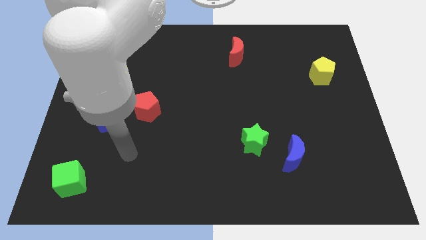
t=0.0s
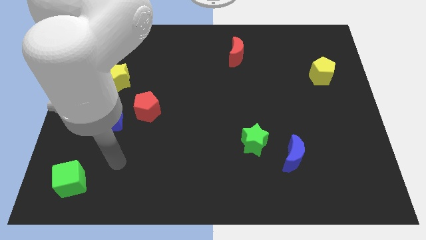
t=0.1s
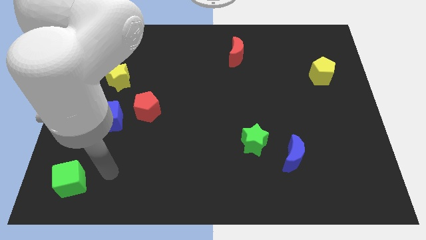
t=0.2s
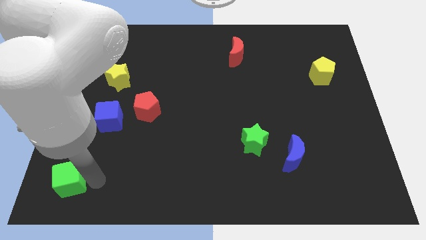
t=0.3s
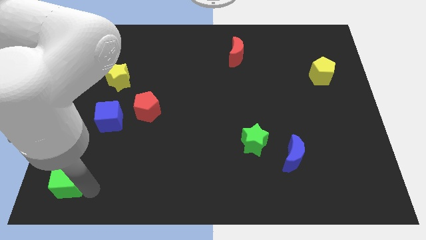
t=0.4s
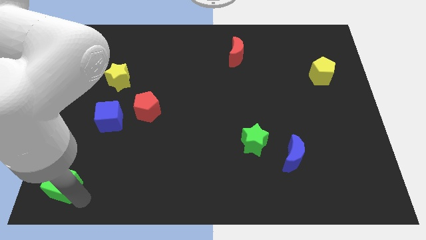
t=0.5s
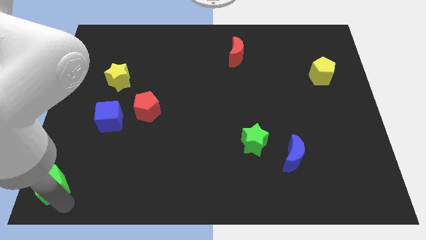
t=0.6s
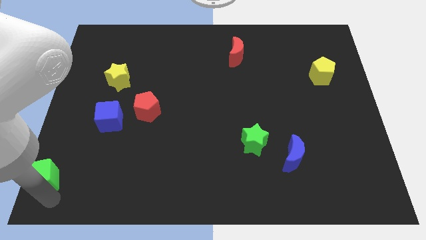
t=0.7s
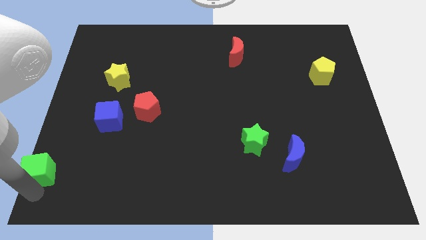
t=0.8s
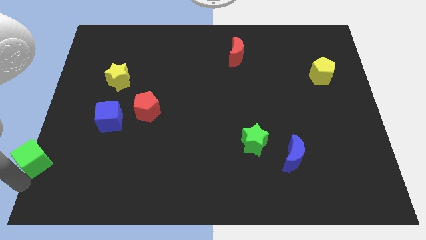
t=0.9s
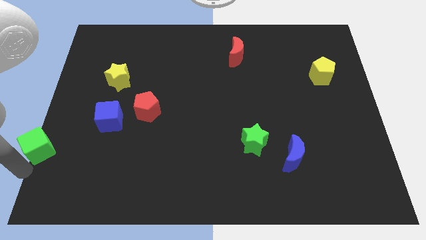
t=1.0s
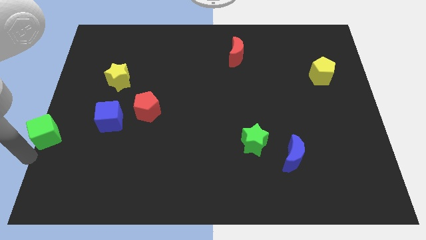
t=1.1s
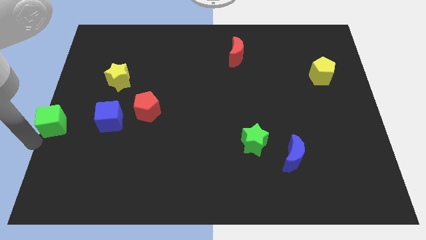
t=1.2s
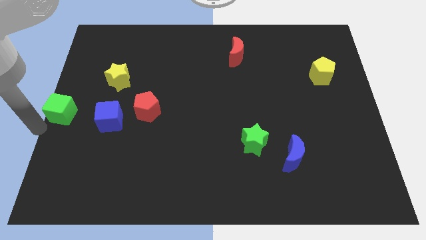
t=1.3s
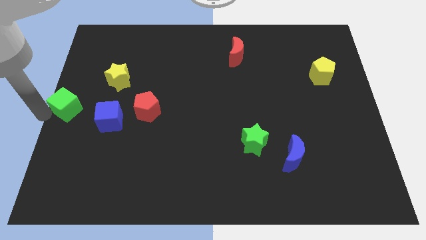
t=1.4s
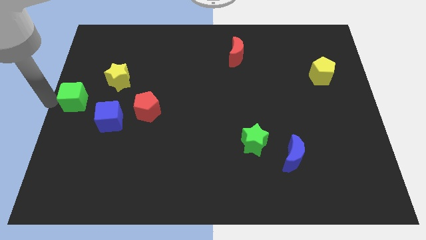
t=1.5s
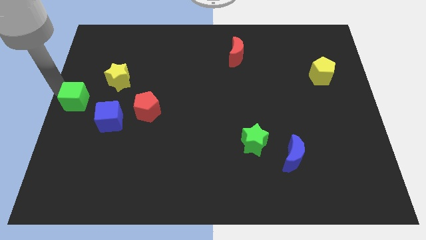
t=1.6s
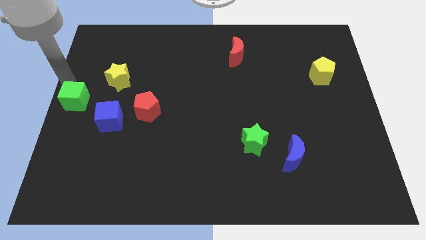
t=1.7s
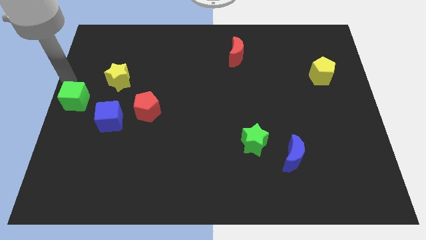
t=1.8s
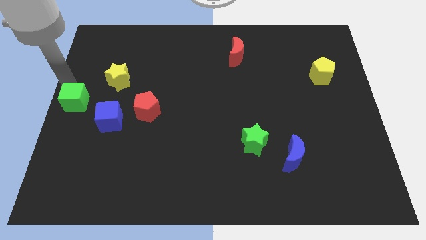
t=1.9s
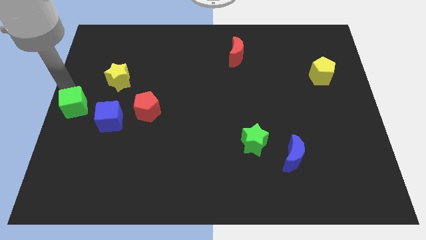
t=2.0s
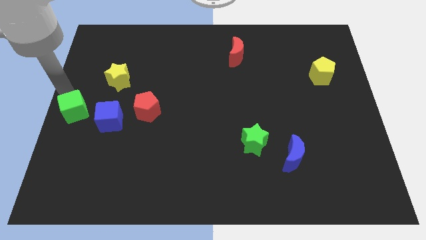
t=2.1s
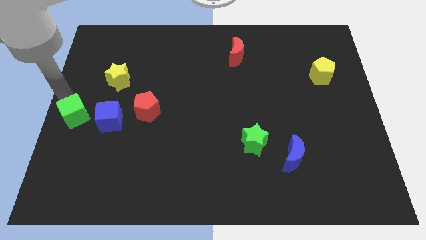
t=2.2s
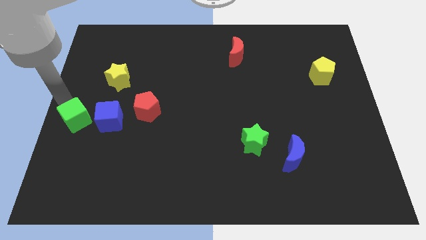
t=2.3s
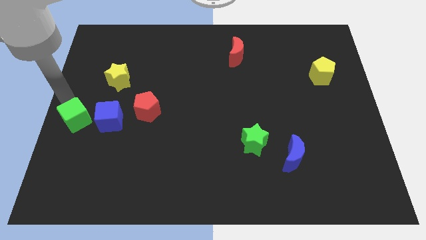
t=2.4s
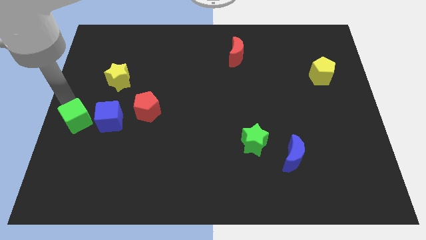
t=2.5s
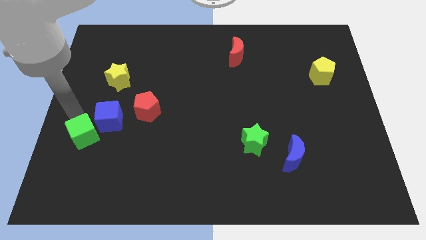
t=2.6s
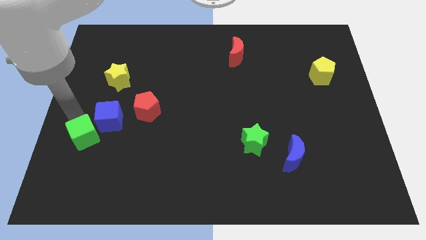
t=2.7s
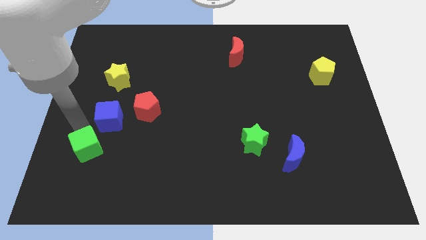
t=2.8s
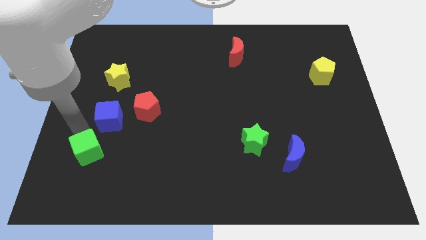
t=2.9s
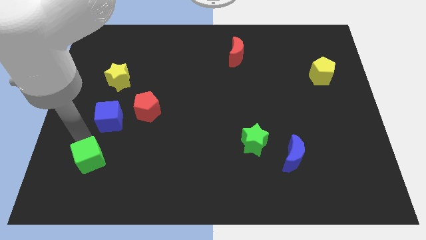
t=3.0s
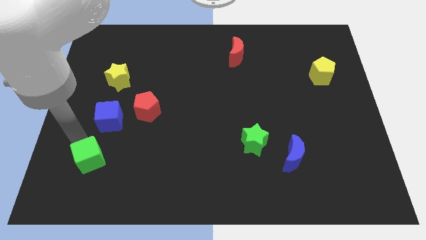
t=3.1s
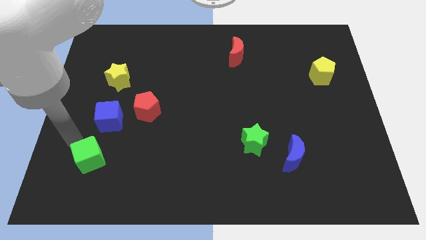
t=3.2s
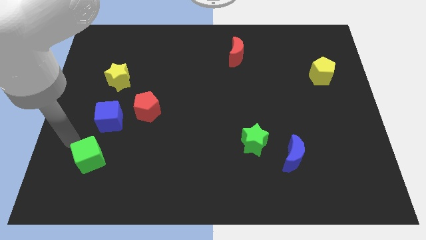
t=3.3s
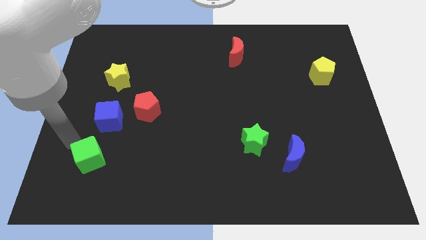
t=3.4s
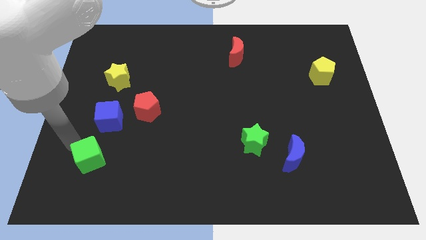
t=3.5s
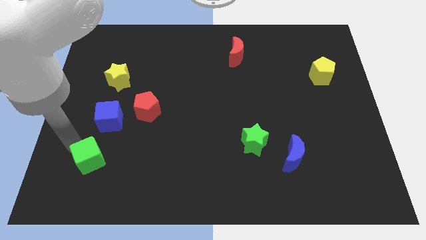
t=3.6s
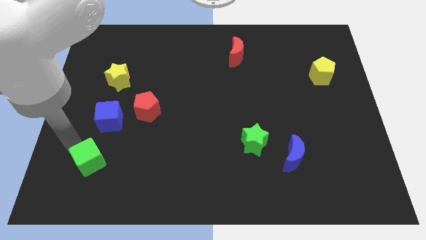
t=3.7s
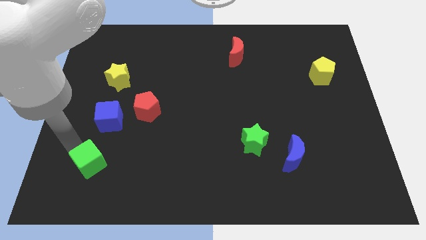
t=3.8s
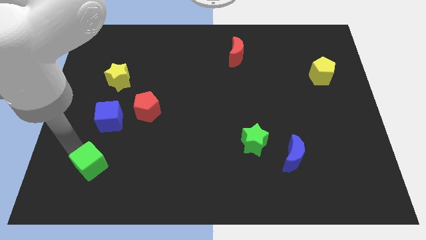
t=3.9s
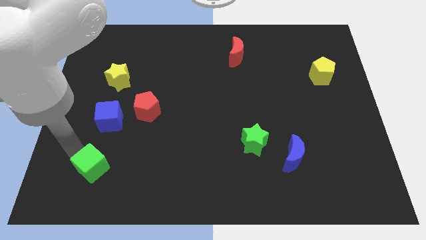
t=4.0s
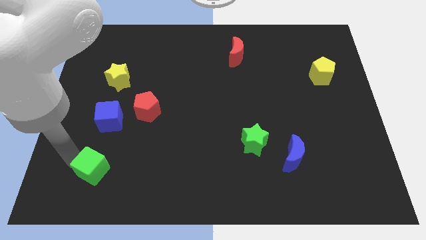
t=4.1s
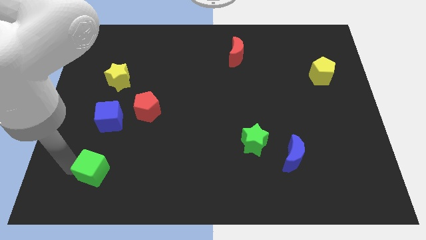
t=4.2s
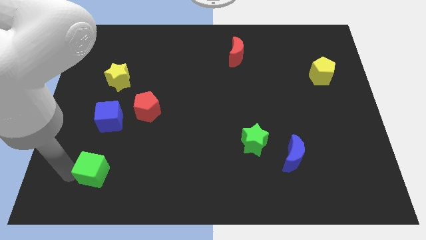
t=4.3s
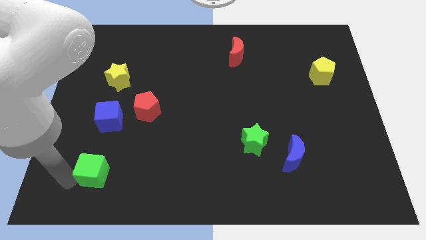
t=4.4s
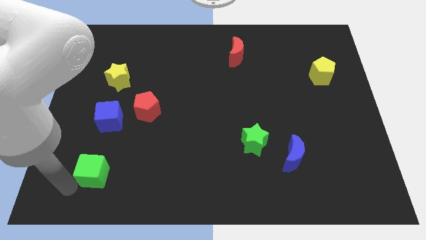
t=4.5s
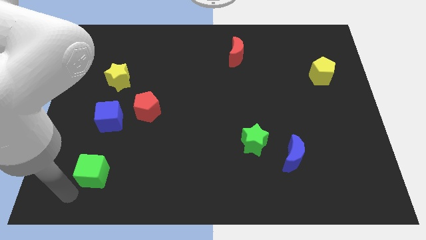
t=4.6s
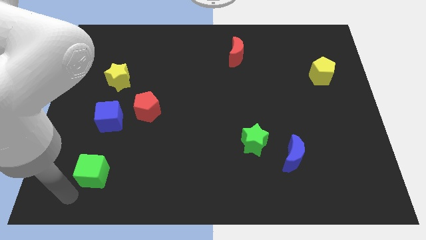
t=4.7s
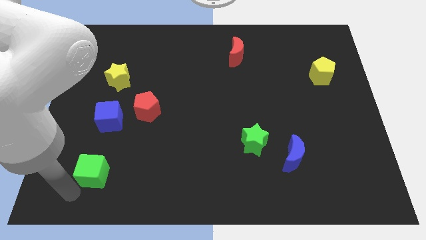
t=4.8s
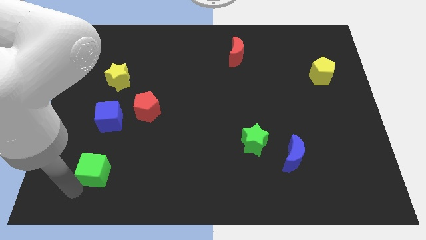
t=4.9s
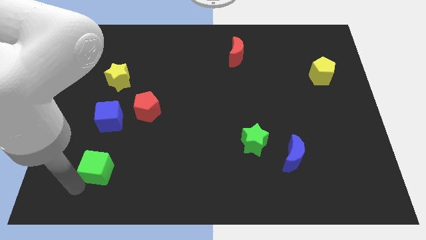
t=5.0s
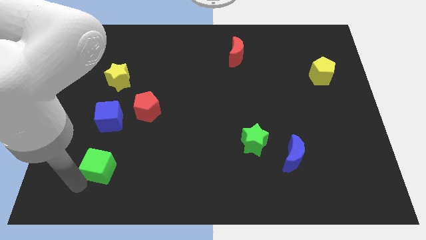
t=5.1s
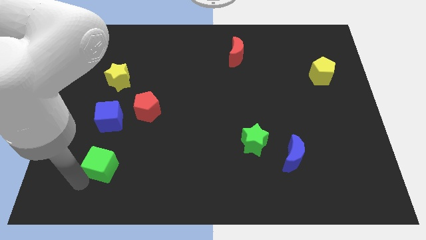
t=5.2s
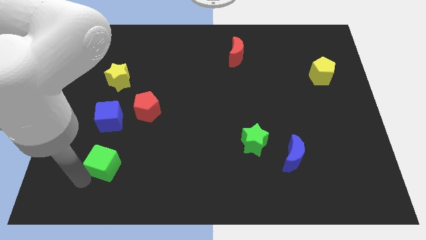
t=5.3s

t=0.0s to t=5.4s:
slide the green cube up and to the right a little

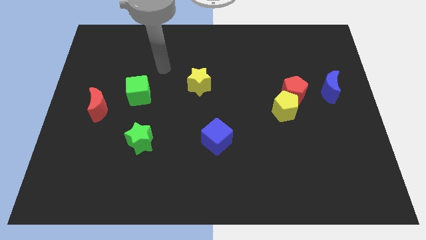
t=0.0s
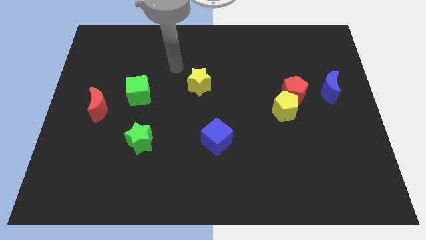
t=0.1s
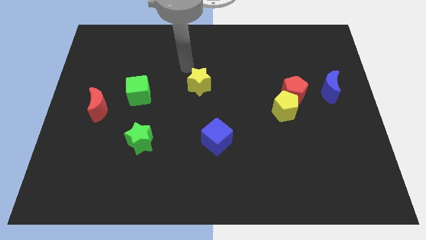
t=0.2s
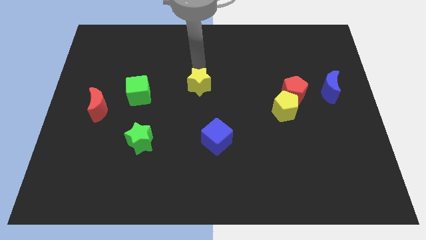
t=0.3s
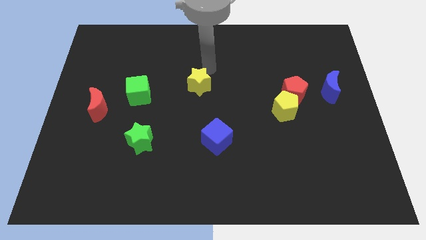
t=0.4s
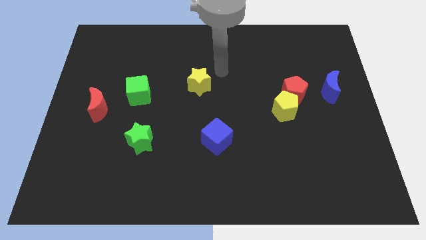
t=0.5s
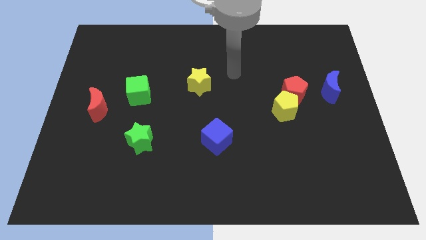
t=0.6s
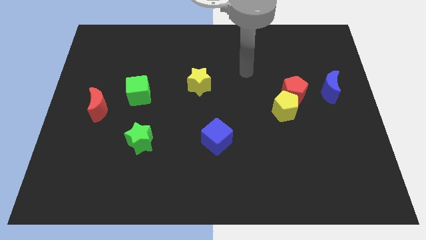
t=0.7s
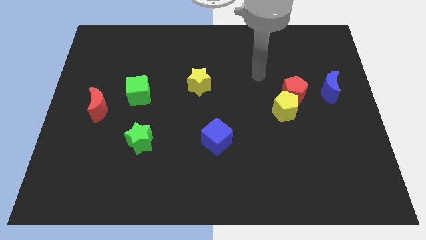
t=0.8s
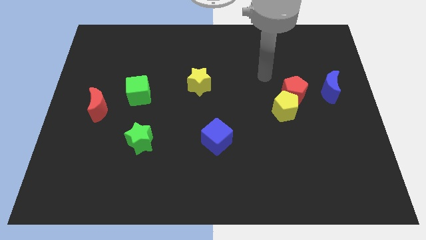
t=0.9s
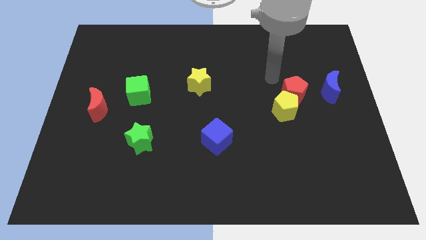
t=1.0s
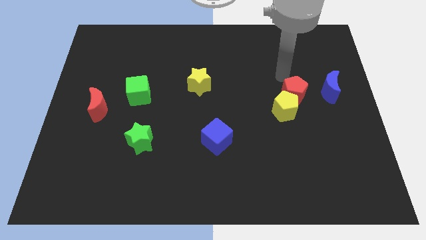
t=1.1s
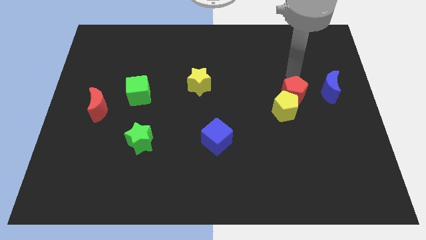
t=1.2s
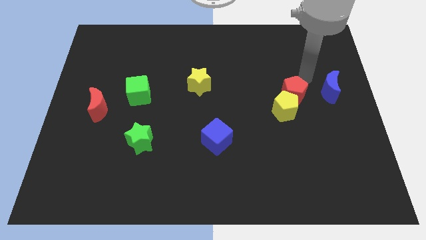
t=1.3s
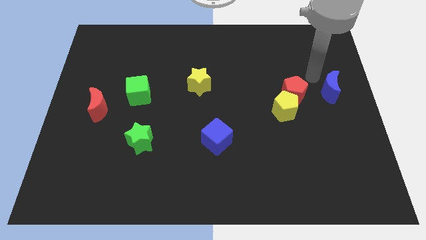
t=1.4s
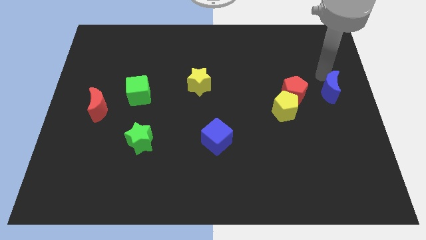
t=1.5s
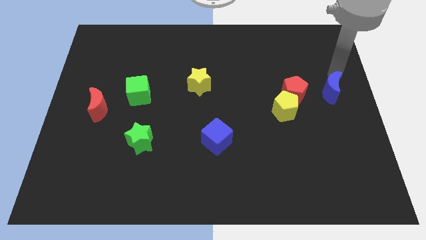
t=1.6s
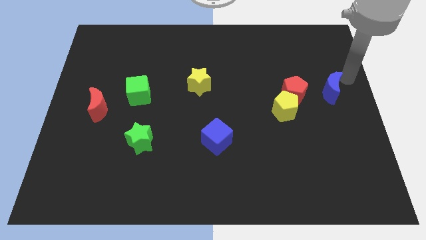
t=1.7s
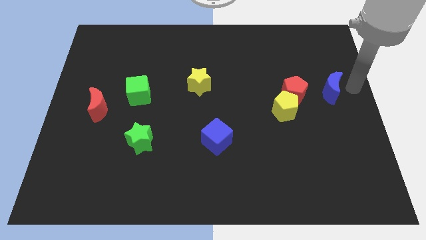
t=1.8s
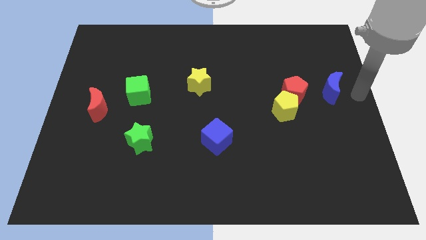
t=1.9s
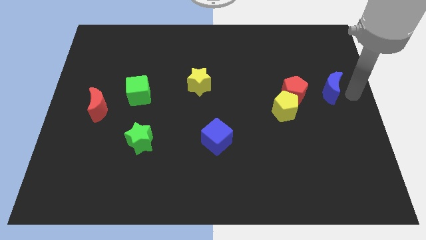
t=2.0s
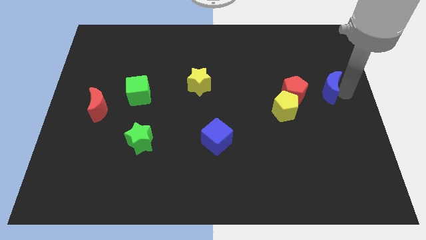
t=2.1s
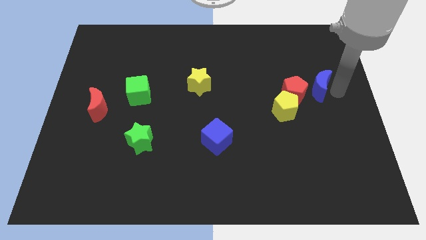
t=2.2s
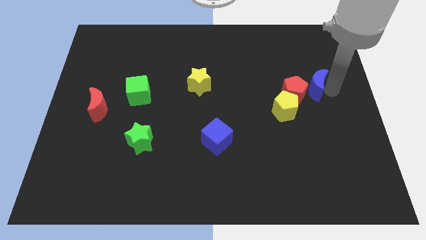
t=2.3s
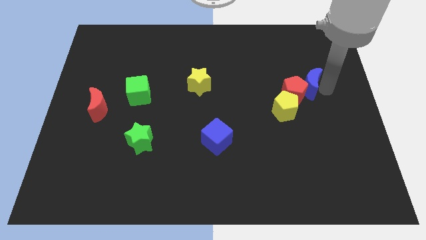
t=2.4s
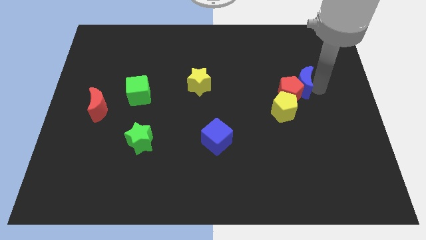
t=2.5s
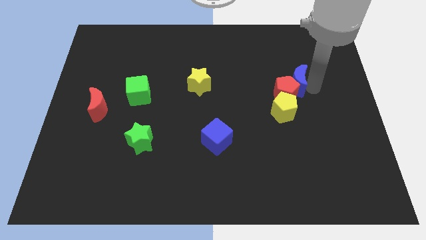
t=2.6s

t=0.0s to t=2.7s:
move the blue moon left a little
